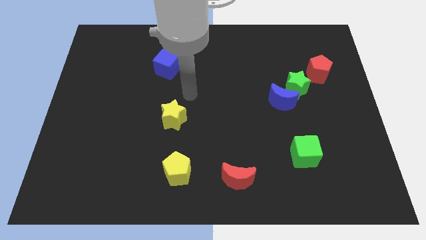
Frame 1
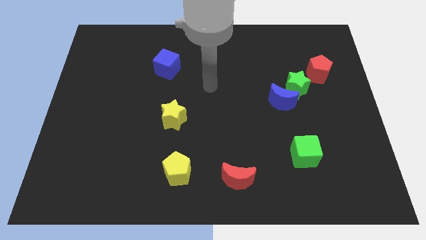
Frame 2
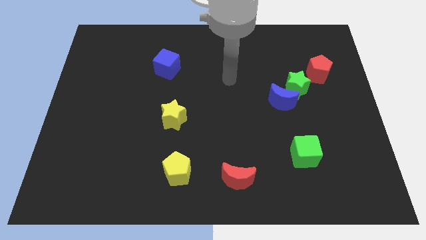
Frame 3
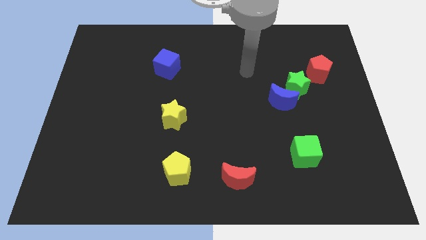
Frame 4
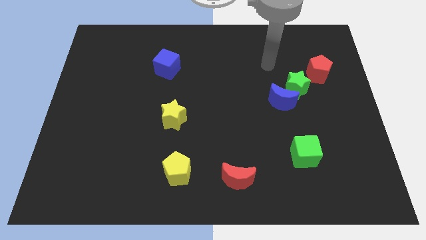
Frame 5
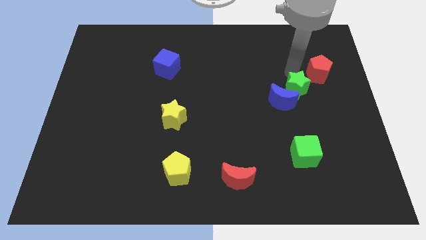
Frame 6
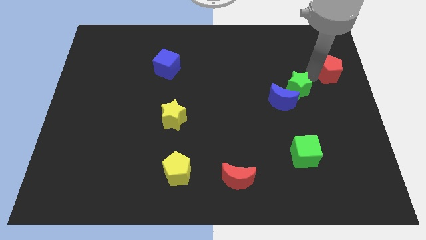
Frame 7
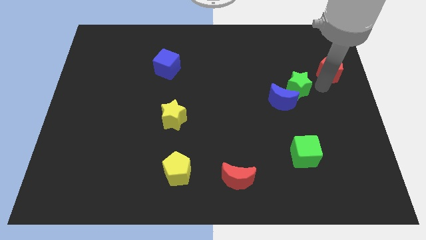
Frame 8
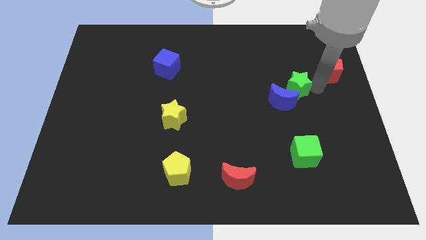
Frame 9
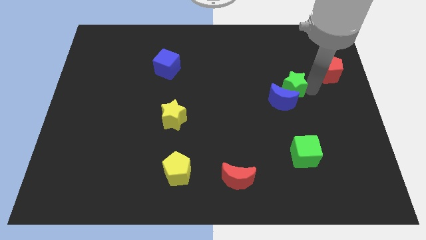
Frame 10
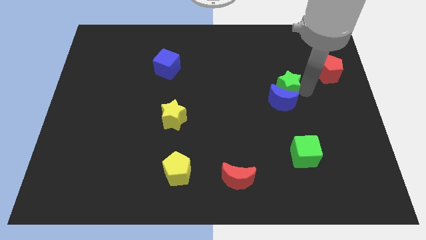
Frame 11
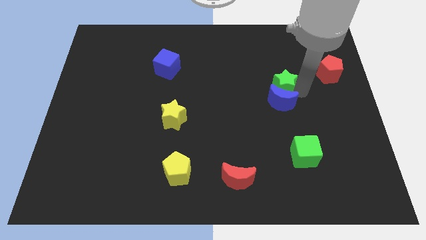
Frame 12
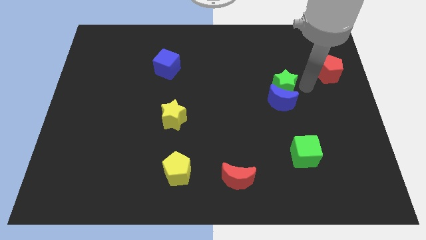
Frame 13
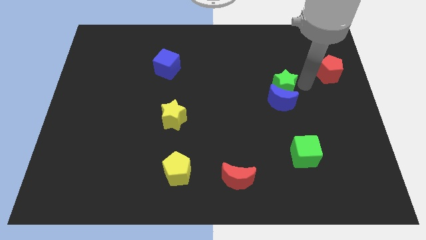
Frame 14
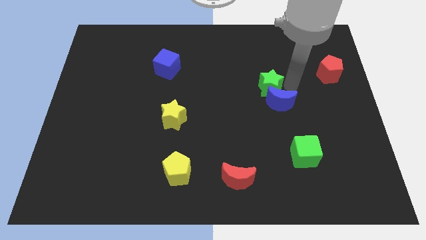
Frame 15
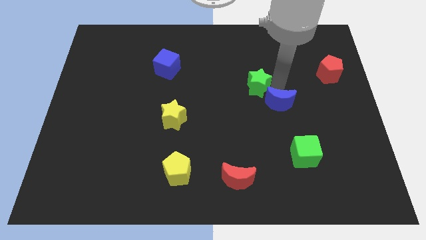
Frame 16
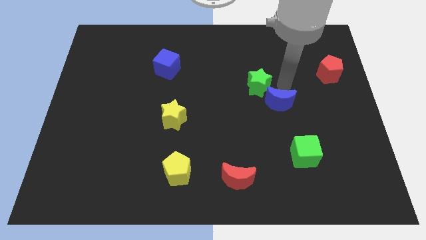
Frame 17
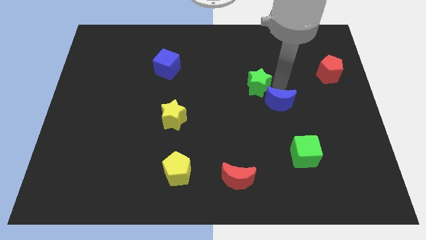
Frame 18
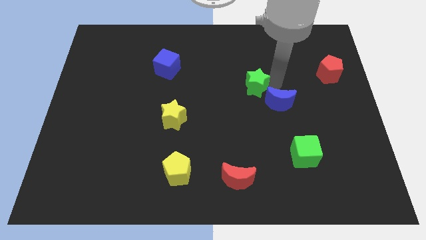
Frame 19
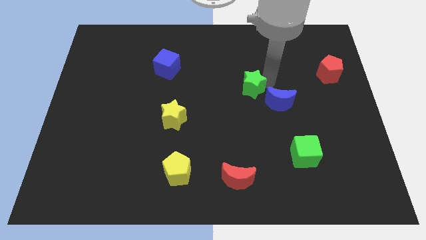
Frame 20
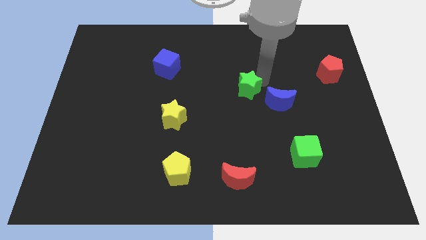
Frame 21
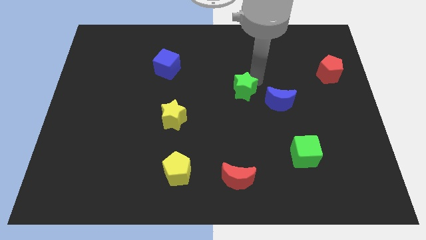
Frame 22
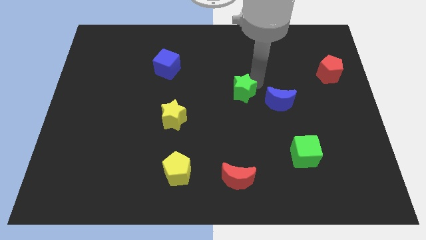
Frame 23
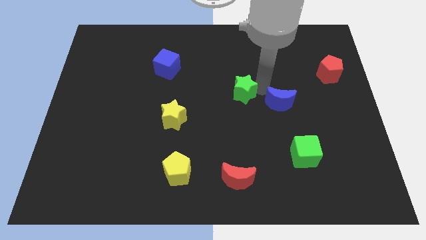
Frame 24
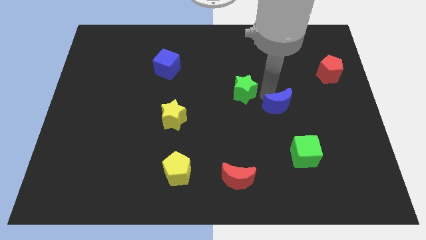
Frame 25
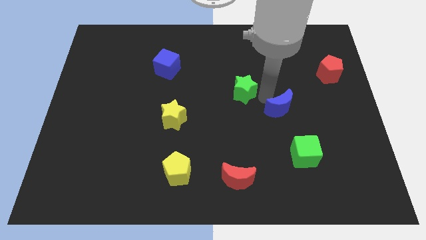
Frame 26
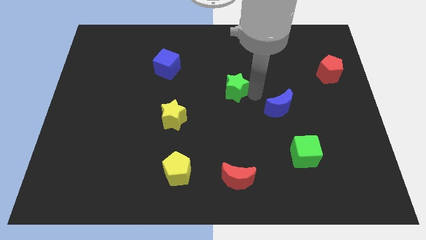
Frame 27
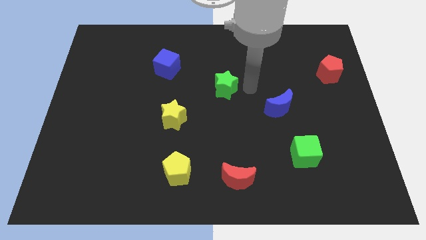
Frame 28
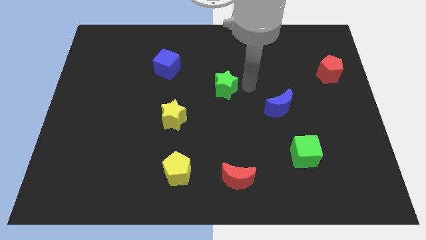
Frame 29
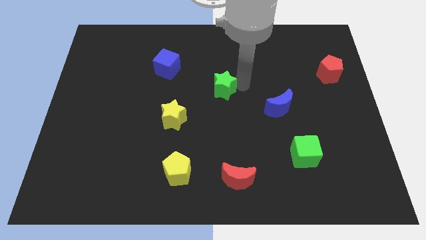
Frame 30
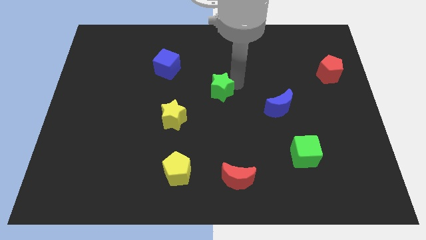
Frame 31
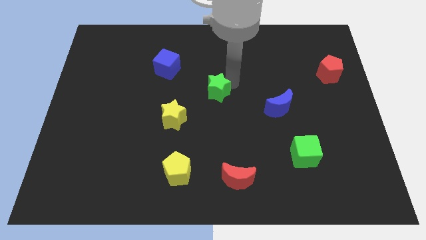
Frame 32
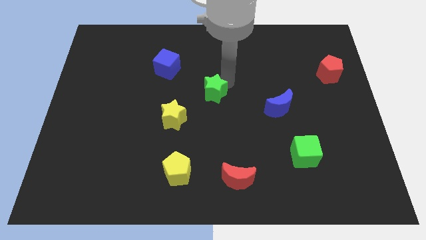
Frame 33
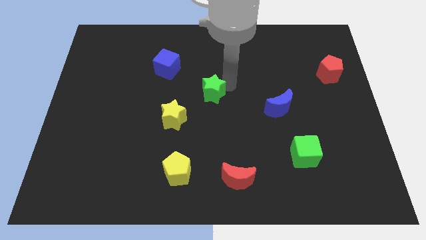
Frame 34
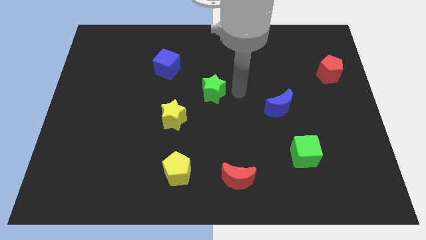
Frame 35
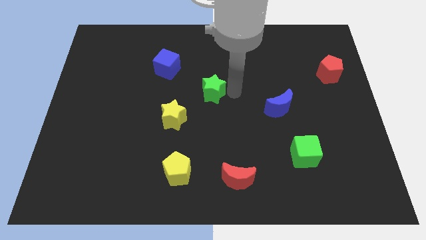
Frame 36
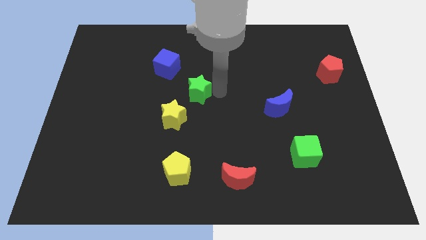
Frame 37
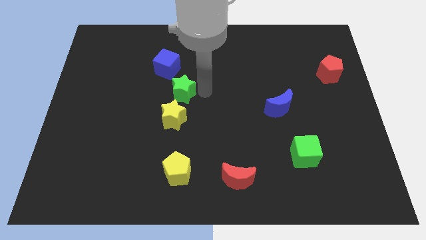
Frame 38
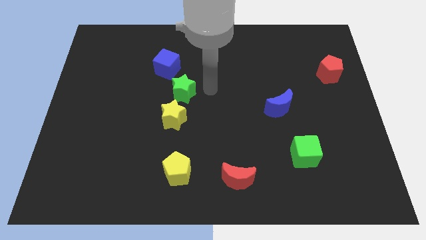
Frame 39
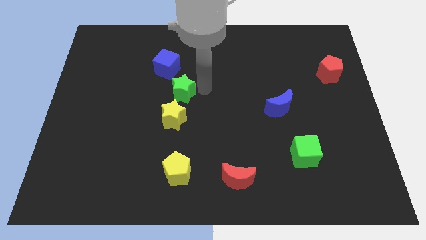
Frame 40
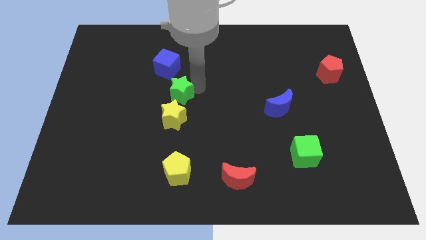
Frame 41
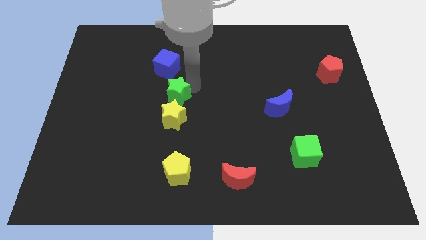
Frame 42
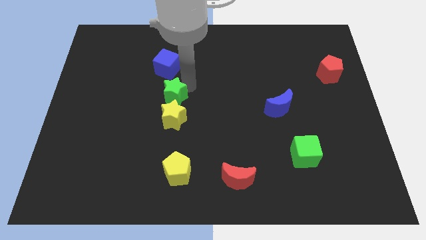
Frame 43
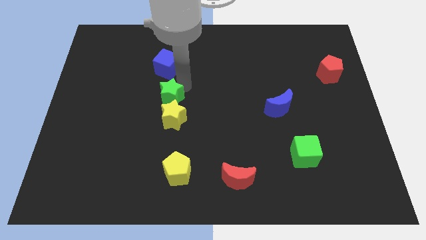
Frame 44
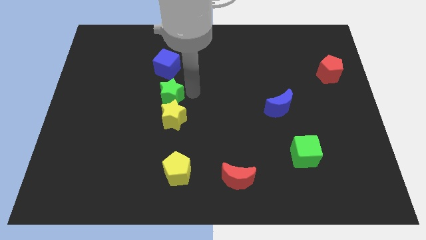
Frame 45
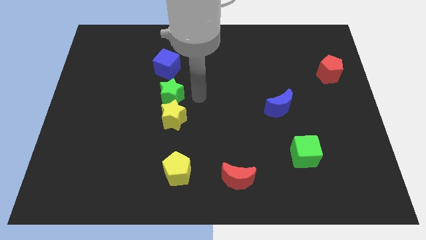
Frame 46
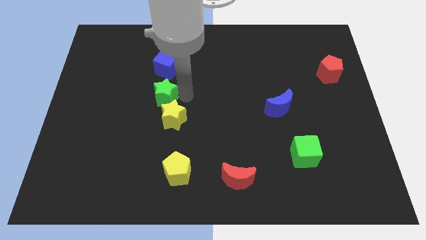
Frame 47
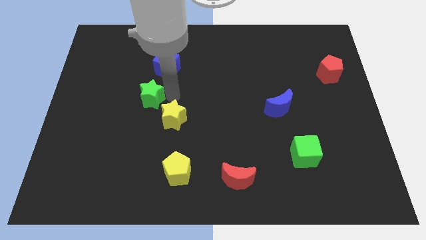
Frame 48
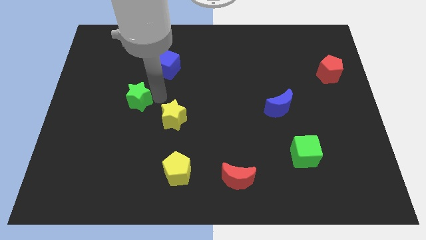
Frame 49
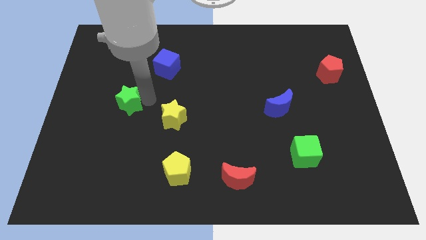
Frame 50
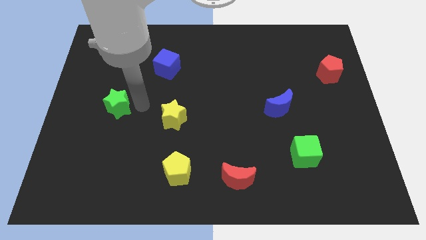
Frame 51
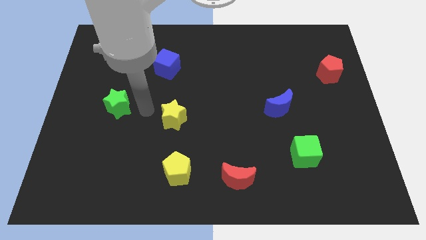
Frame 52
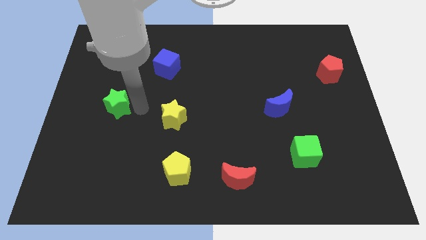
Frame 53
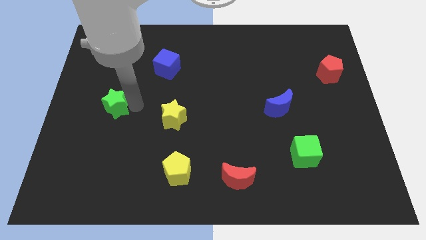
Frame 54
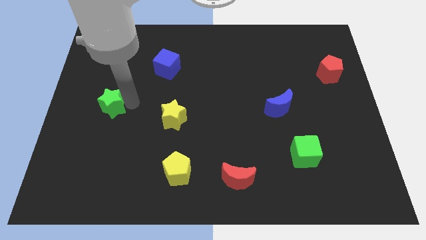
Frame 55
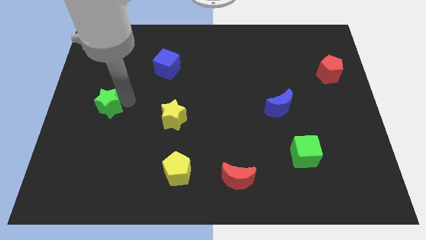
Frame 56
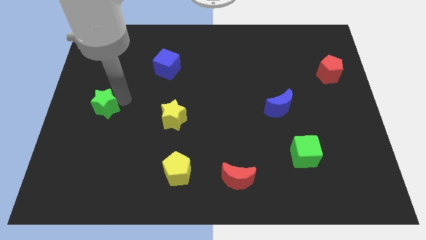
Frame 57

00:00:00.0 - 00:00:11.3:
move the green star to the left side

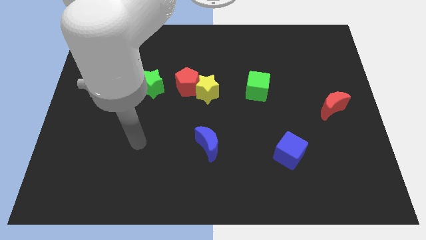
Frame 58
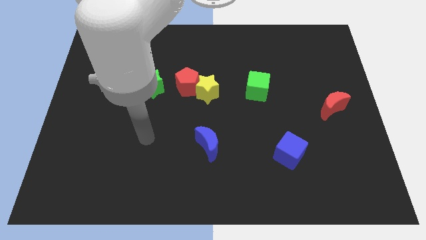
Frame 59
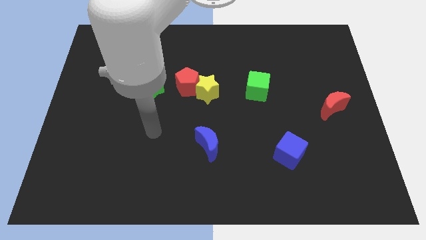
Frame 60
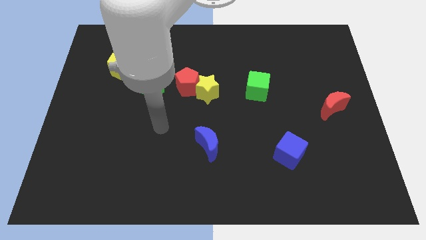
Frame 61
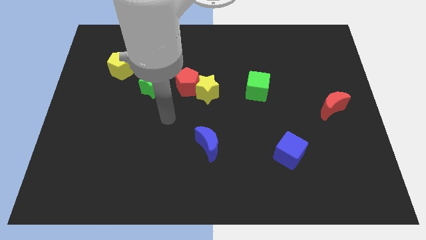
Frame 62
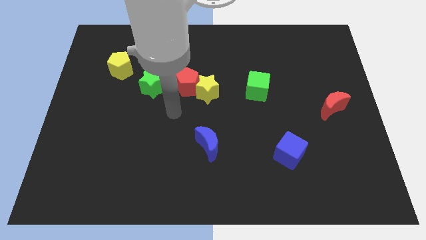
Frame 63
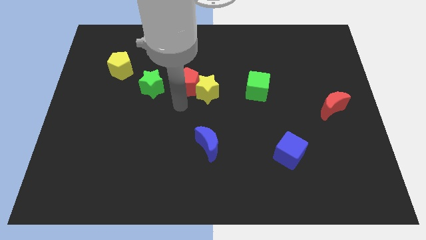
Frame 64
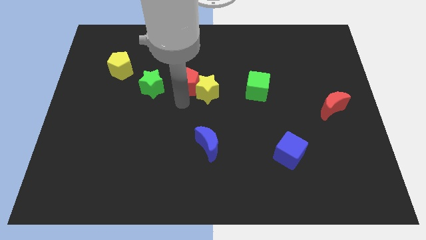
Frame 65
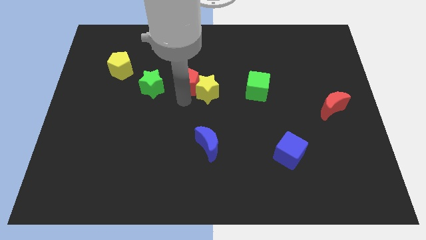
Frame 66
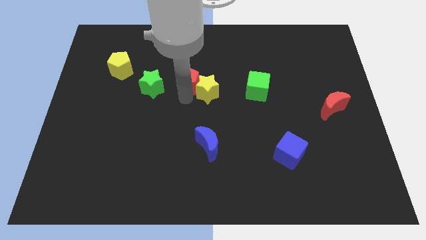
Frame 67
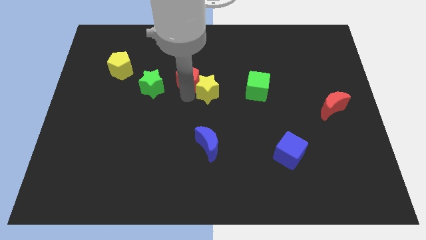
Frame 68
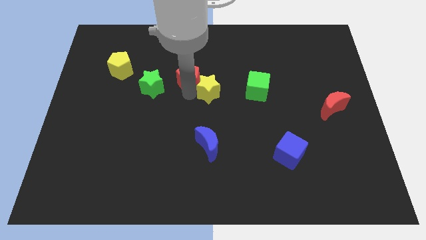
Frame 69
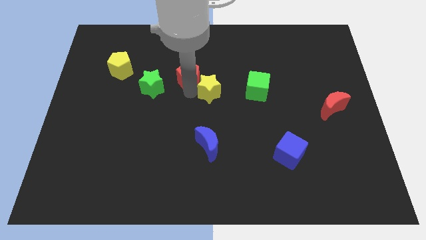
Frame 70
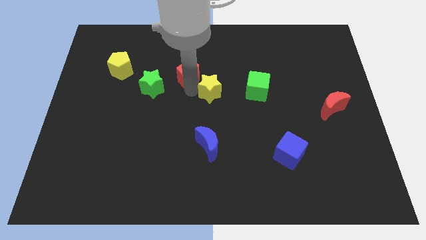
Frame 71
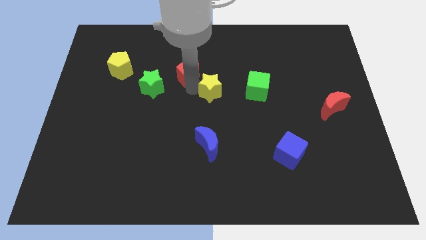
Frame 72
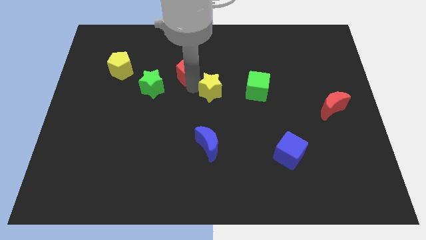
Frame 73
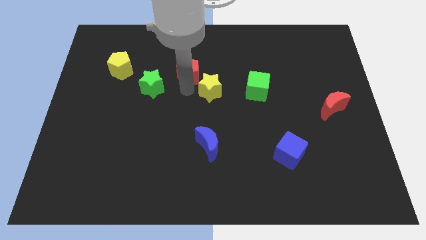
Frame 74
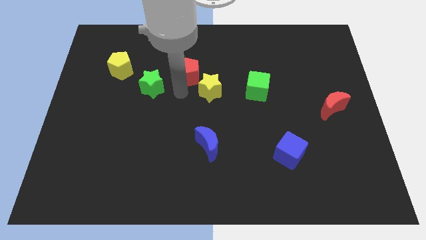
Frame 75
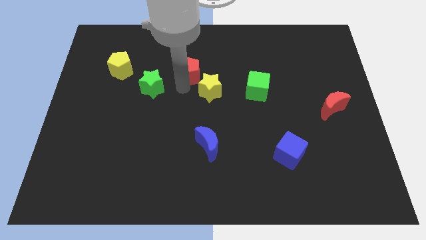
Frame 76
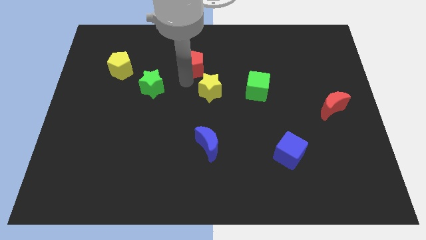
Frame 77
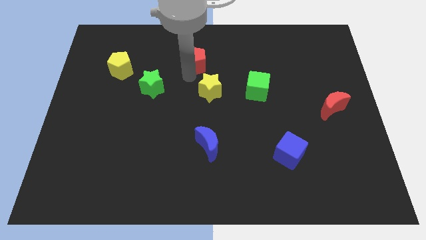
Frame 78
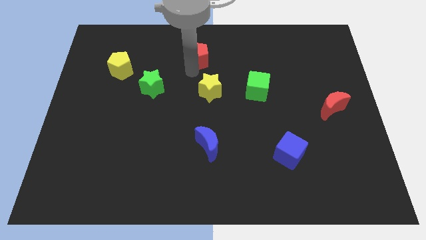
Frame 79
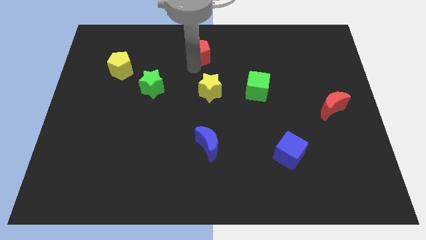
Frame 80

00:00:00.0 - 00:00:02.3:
slide the red pentagon to the top
